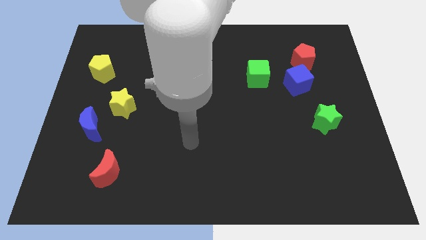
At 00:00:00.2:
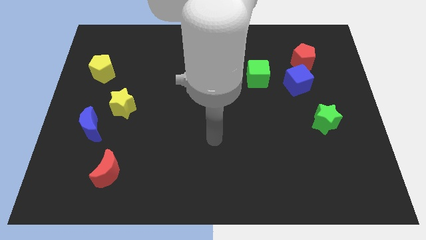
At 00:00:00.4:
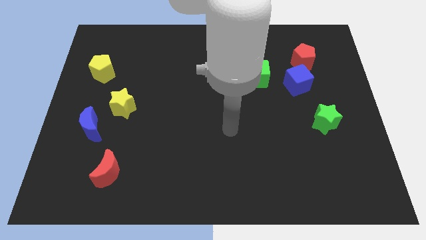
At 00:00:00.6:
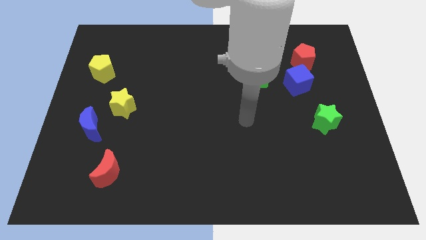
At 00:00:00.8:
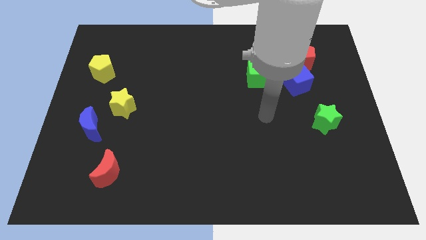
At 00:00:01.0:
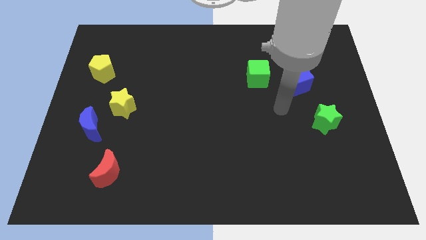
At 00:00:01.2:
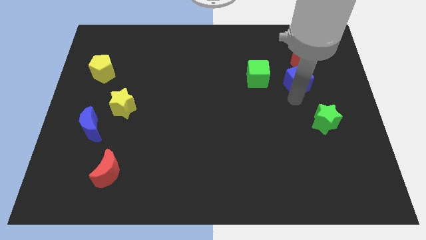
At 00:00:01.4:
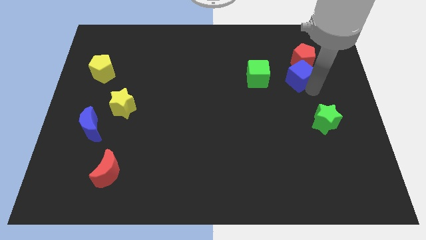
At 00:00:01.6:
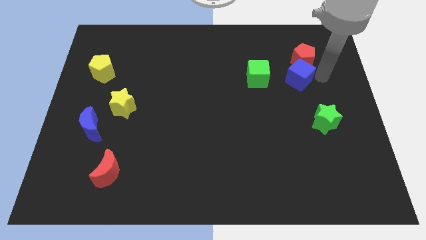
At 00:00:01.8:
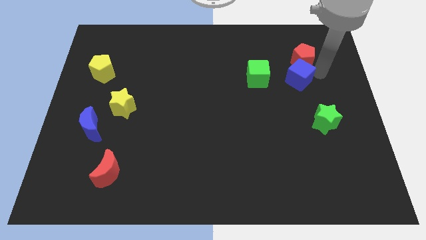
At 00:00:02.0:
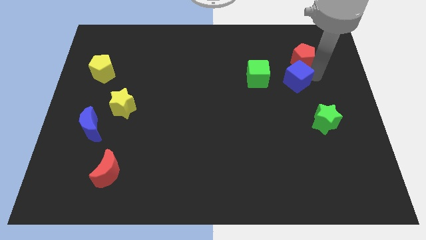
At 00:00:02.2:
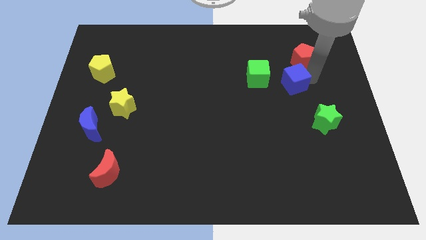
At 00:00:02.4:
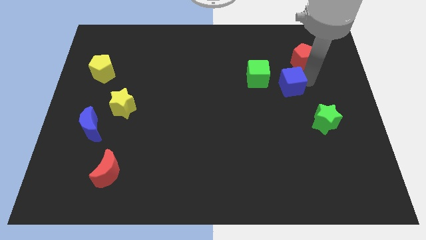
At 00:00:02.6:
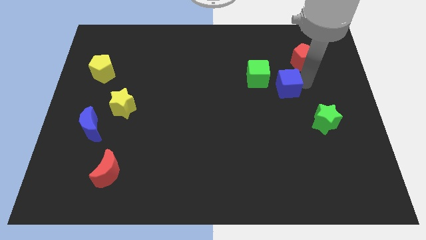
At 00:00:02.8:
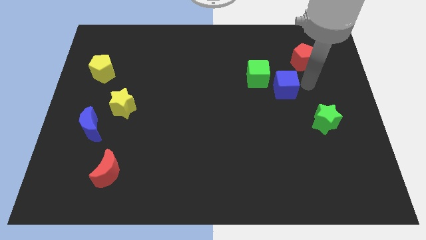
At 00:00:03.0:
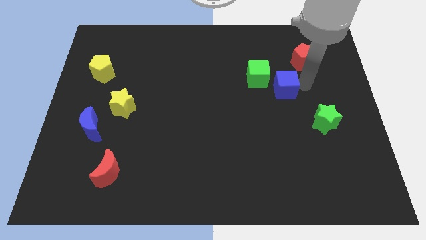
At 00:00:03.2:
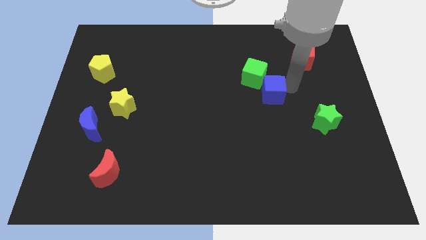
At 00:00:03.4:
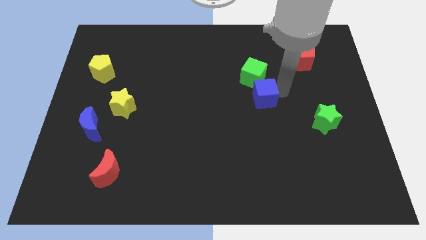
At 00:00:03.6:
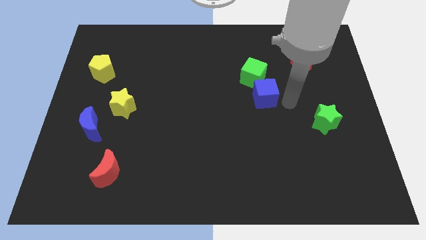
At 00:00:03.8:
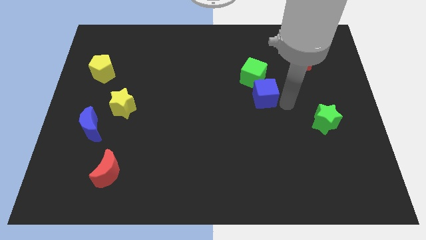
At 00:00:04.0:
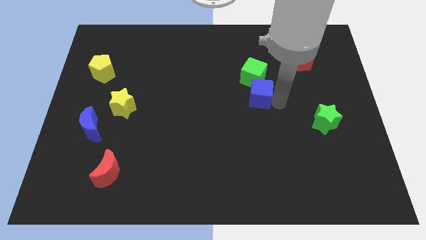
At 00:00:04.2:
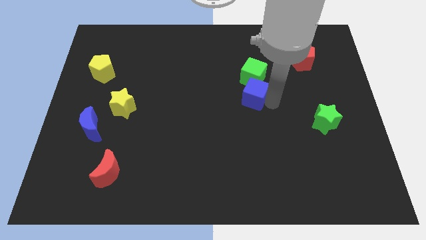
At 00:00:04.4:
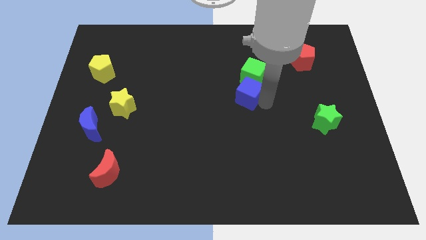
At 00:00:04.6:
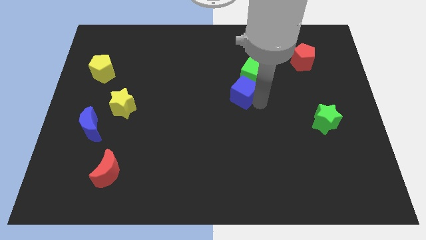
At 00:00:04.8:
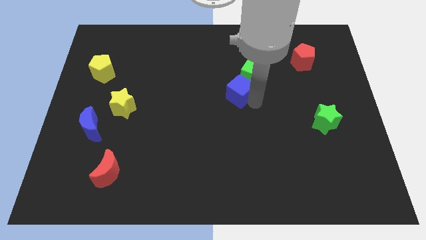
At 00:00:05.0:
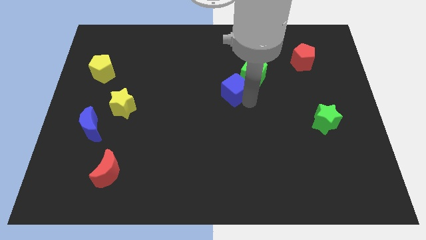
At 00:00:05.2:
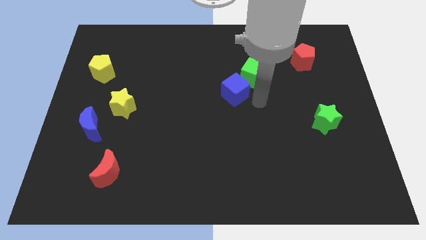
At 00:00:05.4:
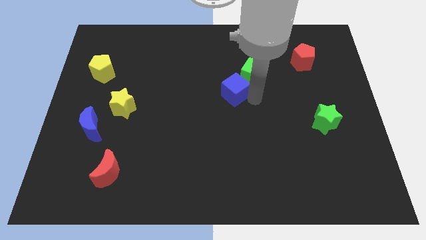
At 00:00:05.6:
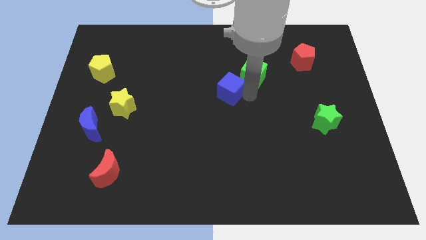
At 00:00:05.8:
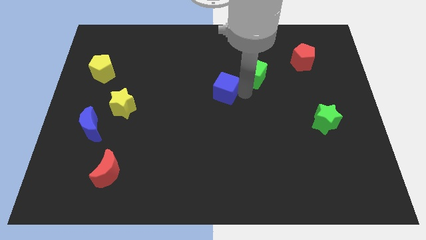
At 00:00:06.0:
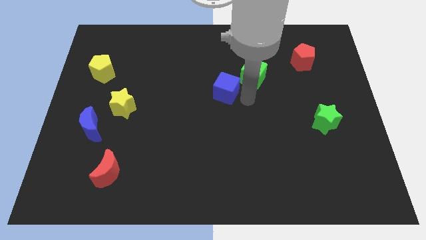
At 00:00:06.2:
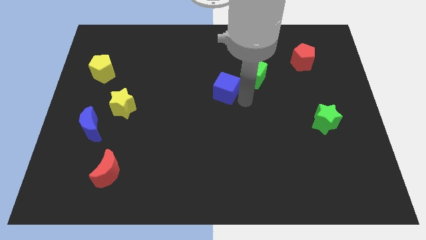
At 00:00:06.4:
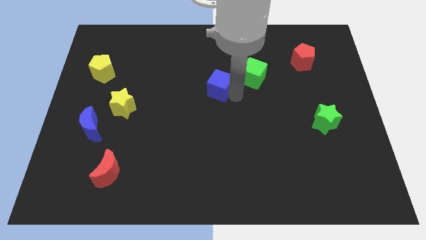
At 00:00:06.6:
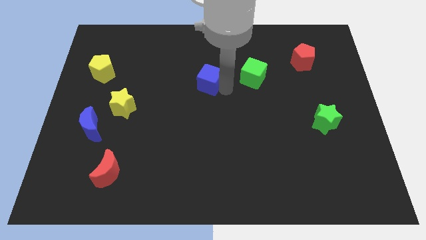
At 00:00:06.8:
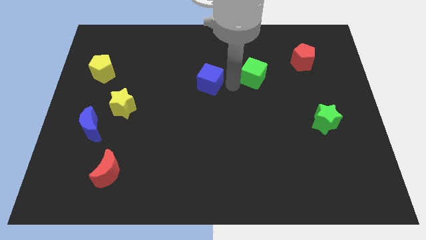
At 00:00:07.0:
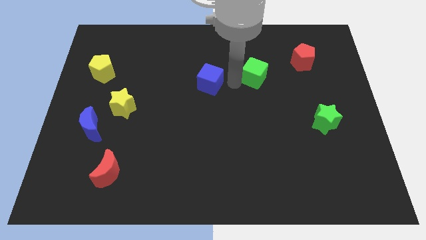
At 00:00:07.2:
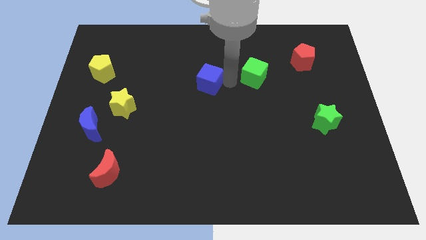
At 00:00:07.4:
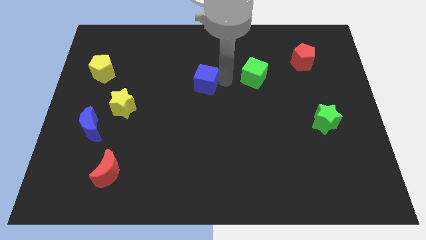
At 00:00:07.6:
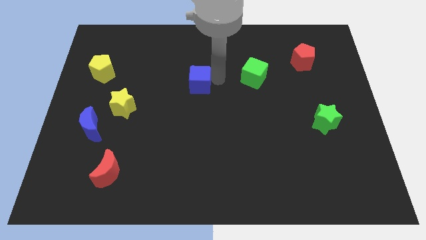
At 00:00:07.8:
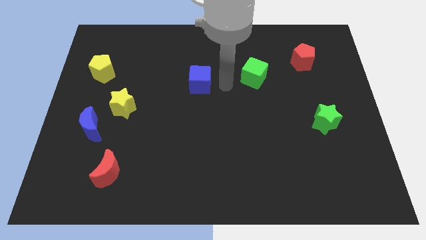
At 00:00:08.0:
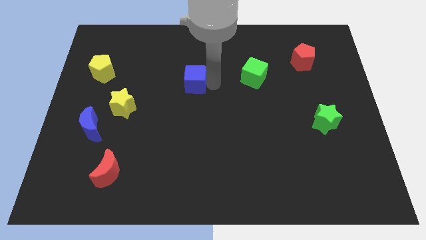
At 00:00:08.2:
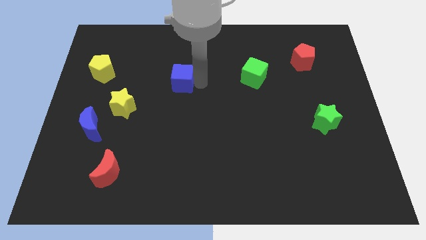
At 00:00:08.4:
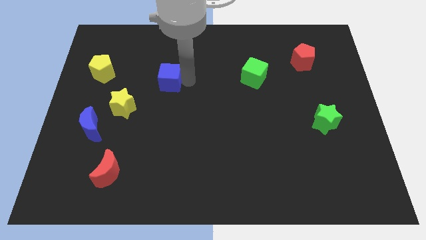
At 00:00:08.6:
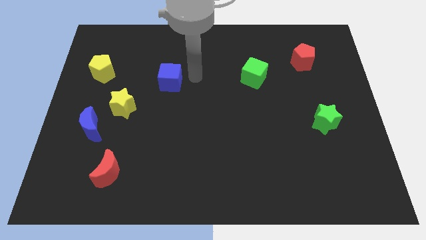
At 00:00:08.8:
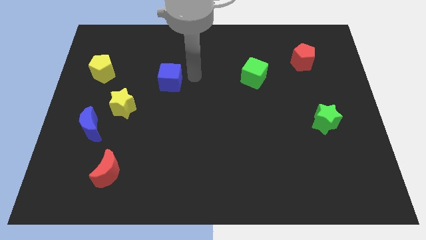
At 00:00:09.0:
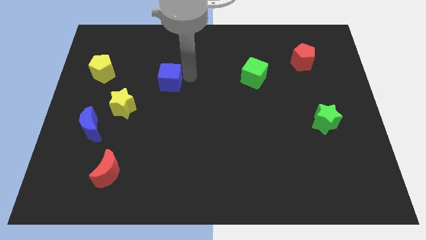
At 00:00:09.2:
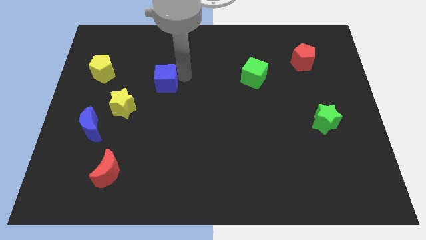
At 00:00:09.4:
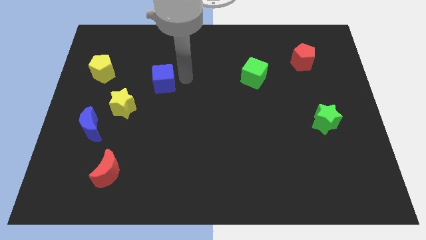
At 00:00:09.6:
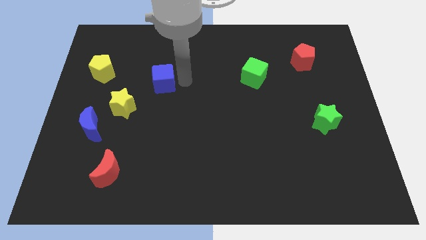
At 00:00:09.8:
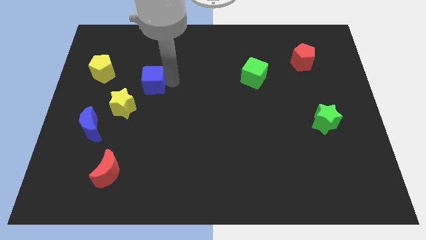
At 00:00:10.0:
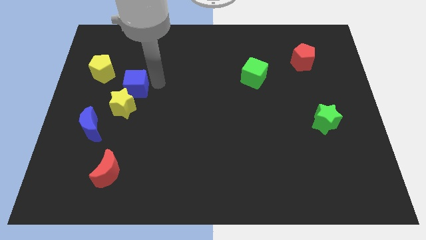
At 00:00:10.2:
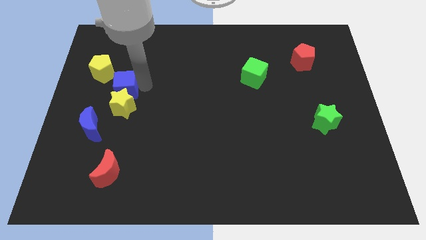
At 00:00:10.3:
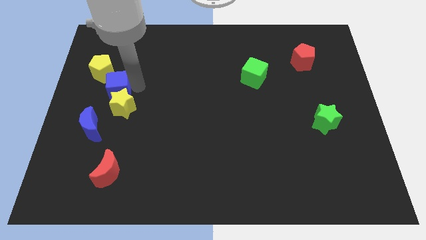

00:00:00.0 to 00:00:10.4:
put the blue cube above the blue moon
